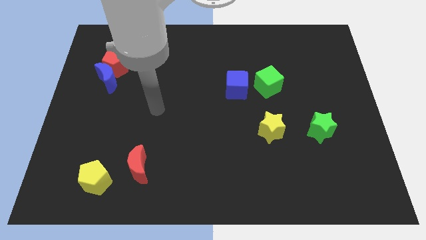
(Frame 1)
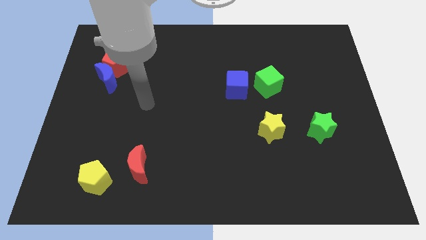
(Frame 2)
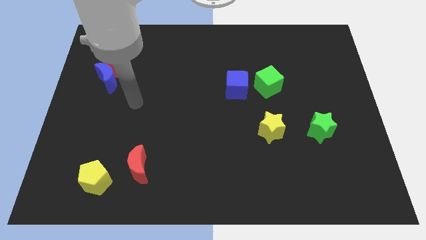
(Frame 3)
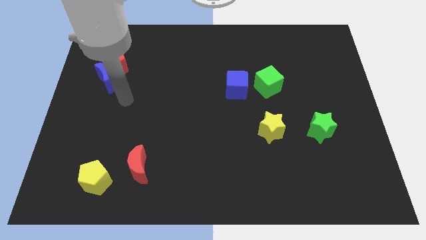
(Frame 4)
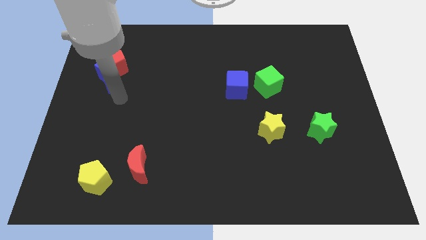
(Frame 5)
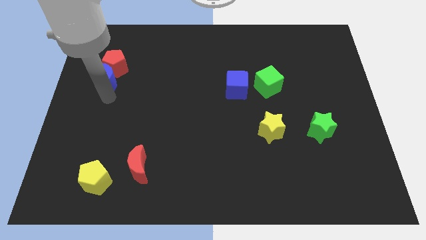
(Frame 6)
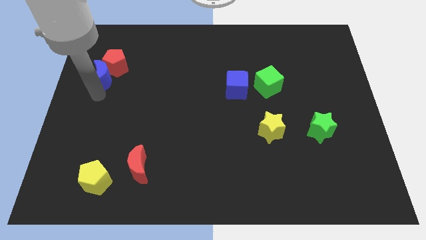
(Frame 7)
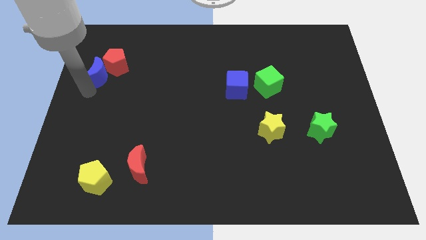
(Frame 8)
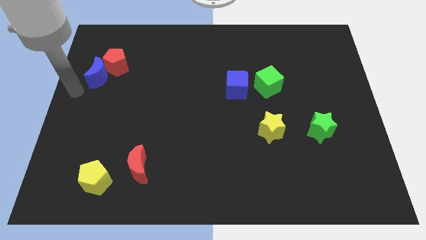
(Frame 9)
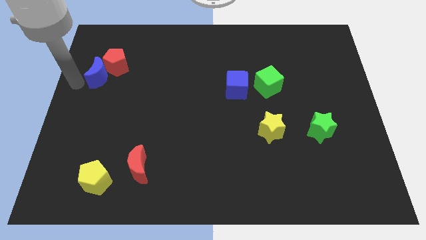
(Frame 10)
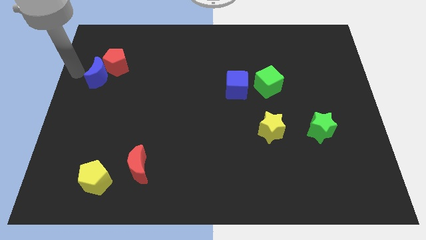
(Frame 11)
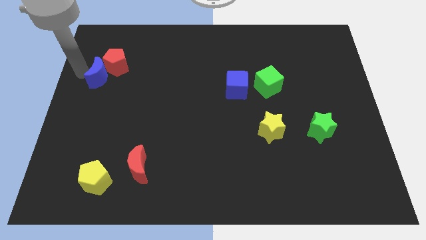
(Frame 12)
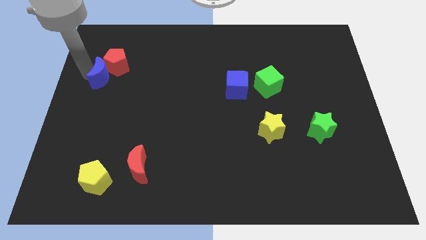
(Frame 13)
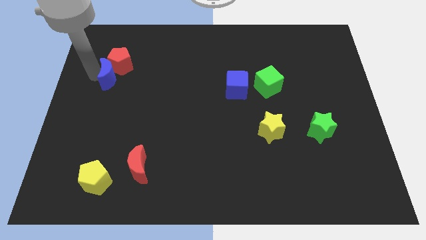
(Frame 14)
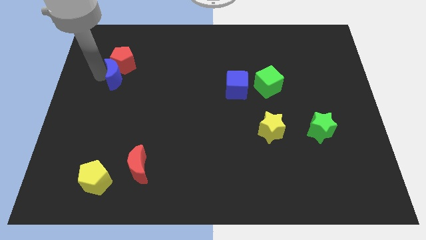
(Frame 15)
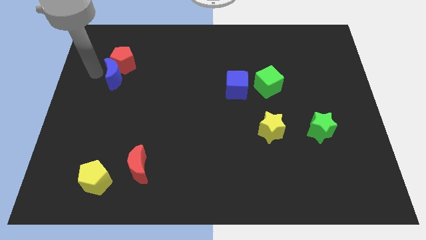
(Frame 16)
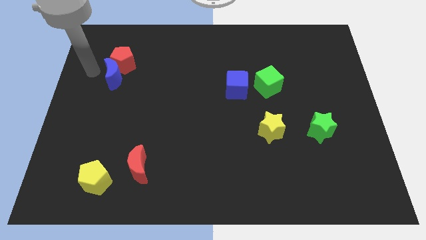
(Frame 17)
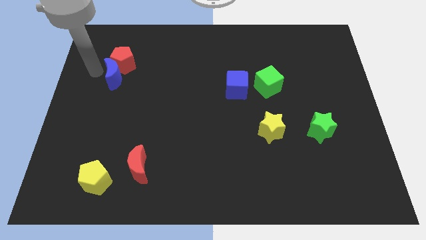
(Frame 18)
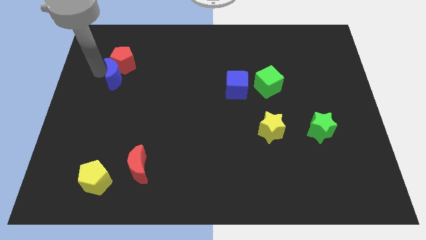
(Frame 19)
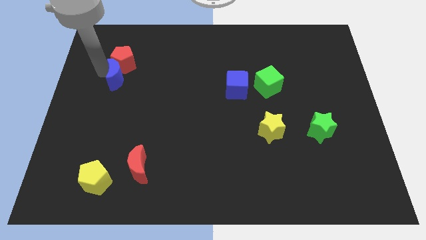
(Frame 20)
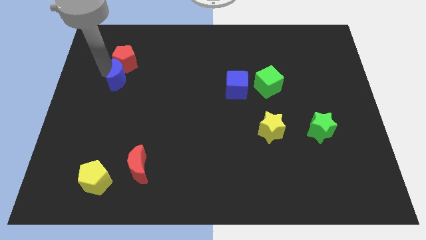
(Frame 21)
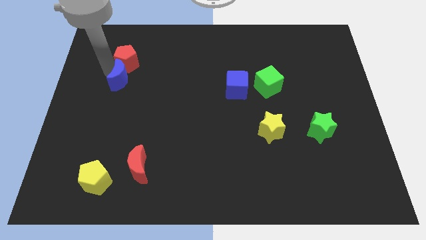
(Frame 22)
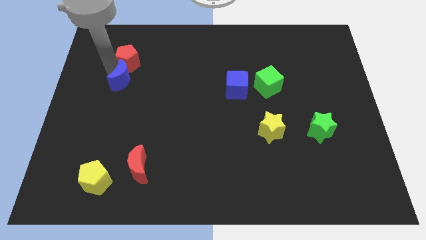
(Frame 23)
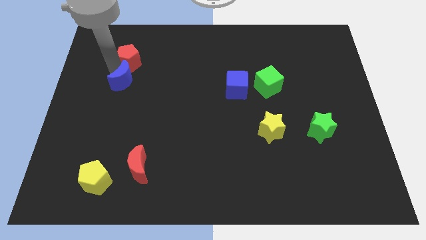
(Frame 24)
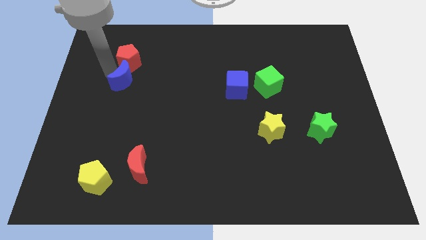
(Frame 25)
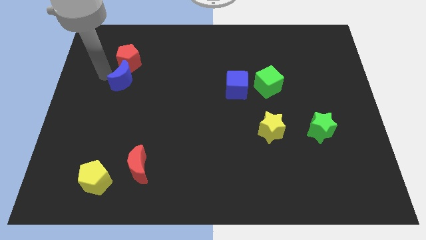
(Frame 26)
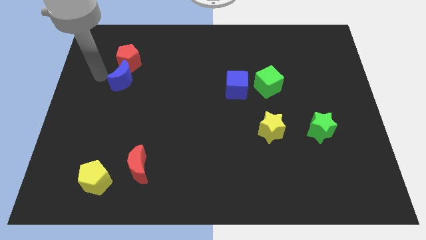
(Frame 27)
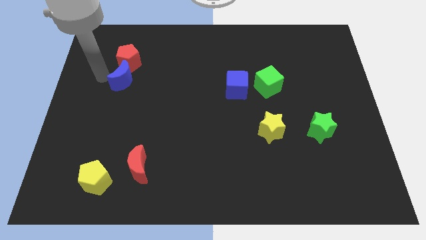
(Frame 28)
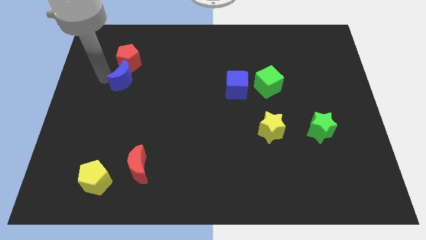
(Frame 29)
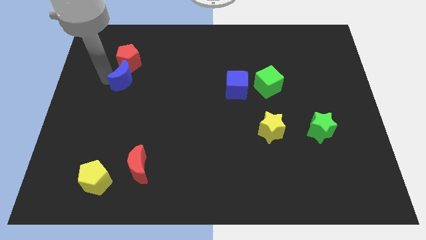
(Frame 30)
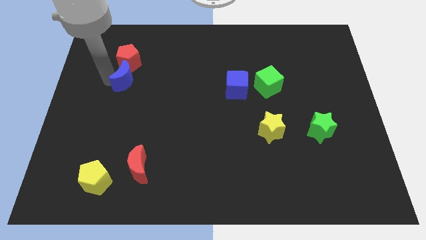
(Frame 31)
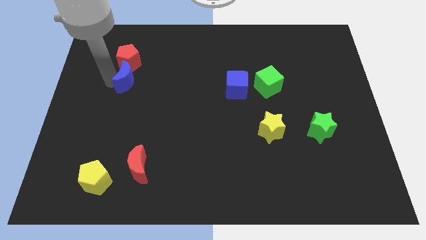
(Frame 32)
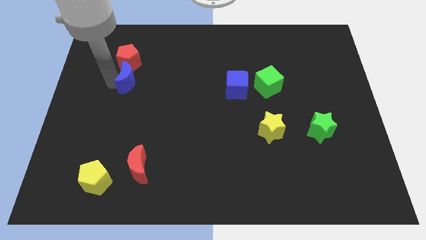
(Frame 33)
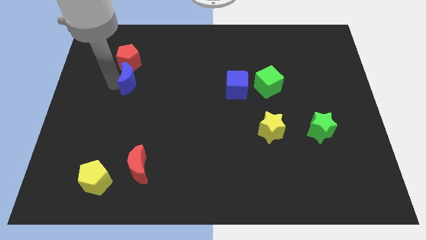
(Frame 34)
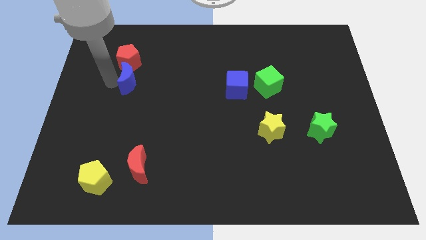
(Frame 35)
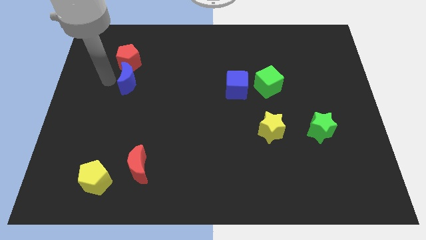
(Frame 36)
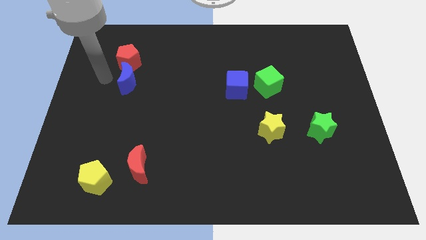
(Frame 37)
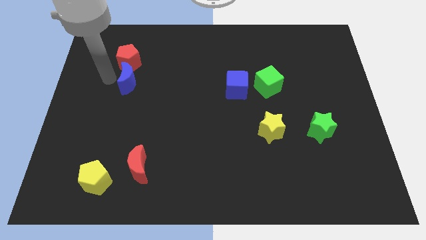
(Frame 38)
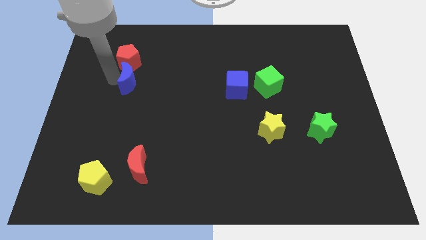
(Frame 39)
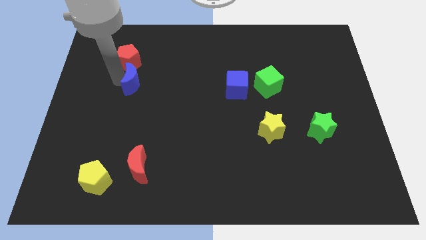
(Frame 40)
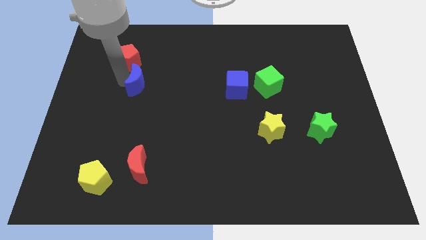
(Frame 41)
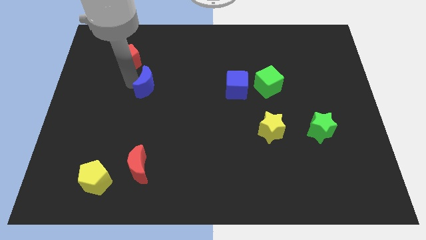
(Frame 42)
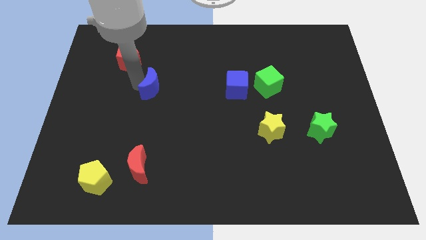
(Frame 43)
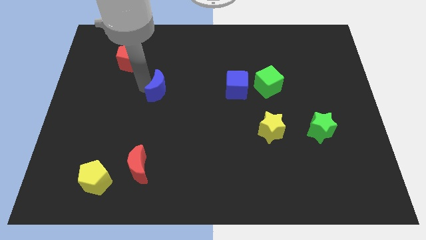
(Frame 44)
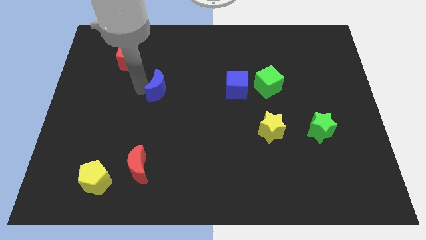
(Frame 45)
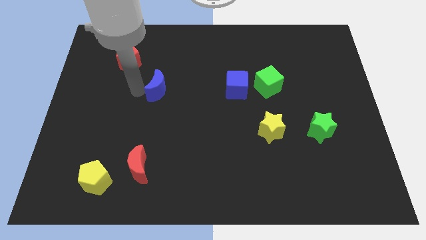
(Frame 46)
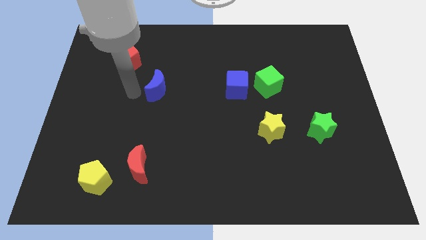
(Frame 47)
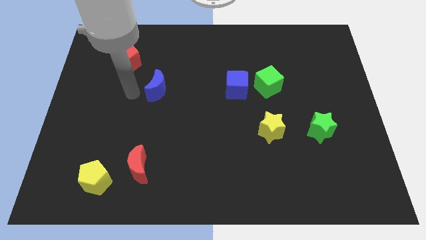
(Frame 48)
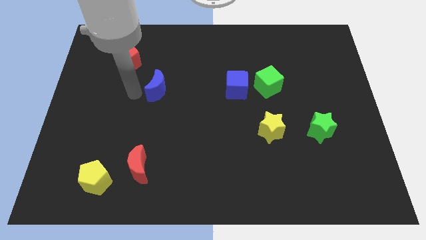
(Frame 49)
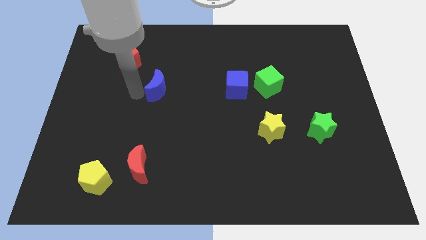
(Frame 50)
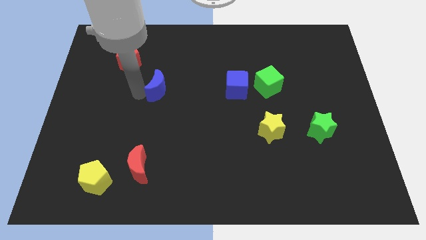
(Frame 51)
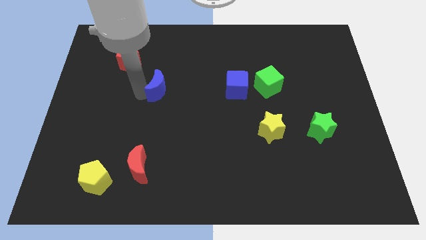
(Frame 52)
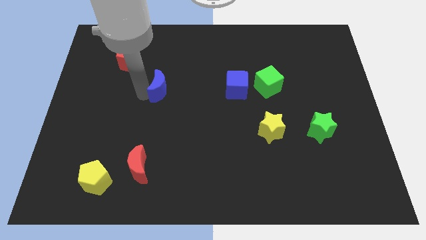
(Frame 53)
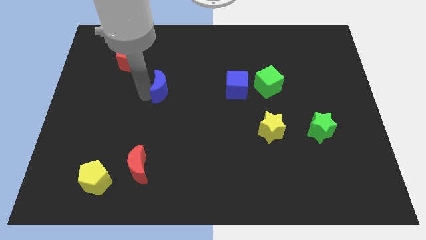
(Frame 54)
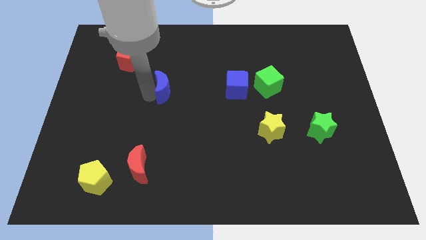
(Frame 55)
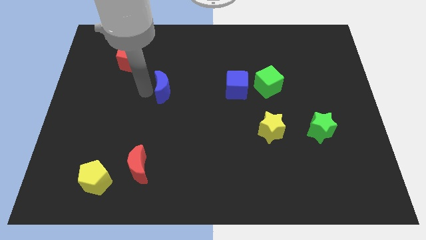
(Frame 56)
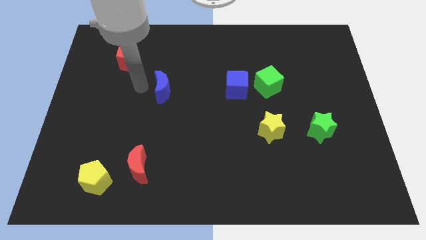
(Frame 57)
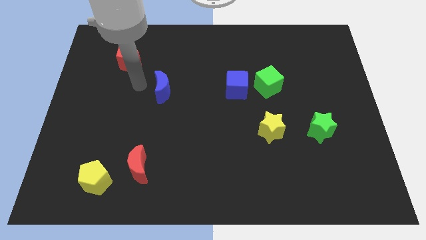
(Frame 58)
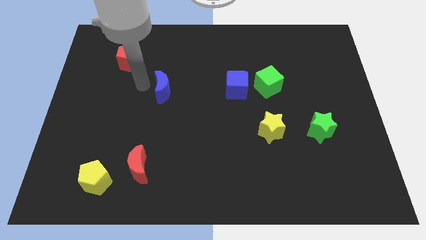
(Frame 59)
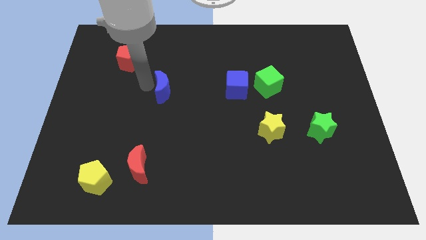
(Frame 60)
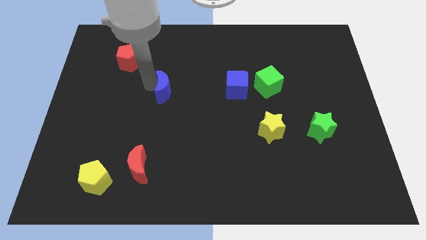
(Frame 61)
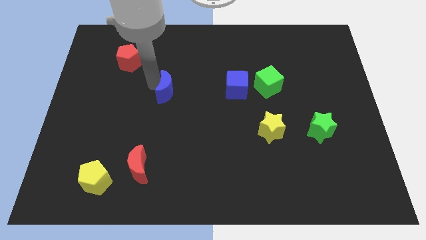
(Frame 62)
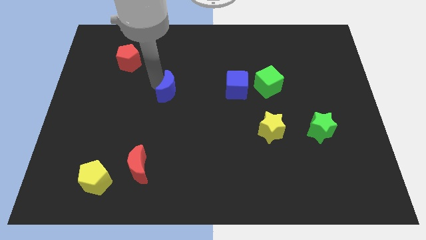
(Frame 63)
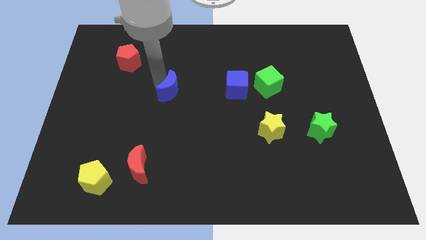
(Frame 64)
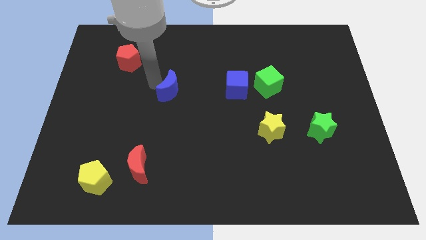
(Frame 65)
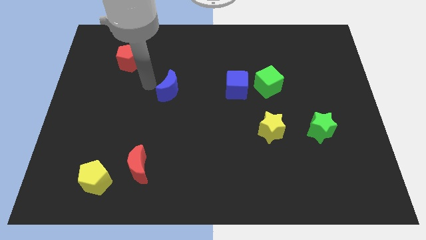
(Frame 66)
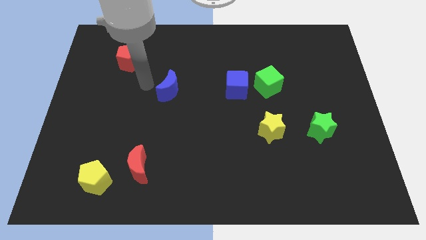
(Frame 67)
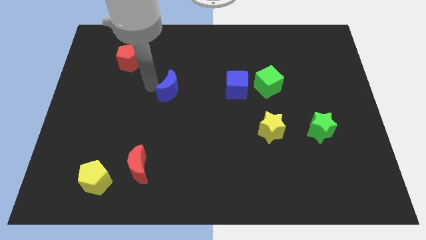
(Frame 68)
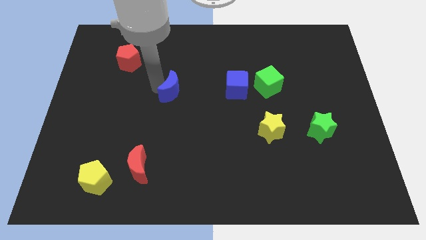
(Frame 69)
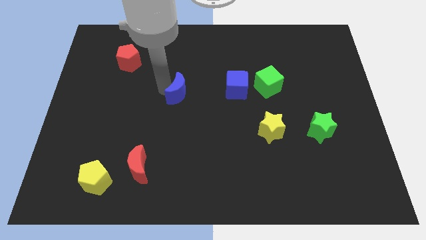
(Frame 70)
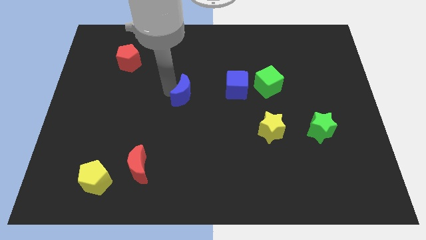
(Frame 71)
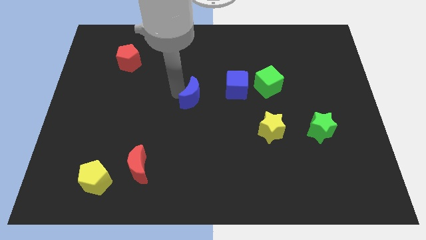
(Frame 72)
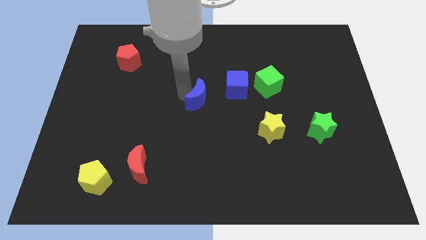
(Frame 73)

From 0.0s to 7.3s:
put the blue moon diagonally down and to the left of the blue cube
